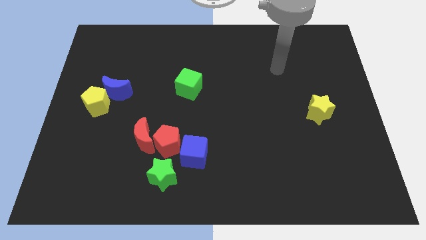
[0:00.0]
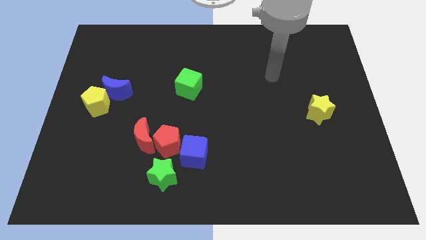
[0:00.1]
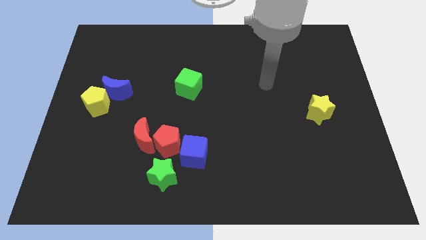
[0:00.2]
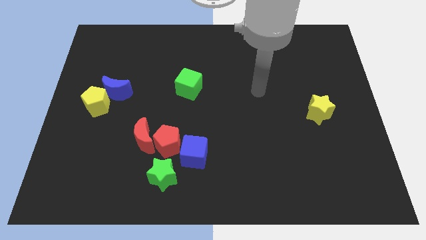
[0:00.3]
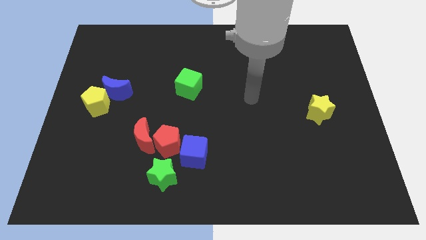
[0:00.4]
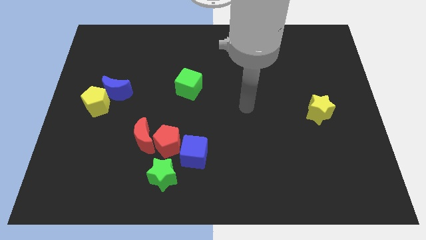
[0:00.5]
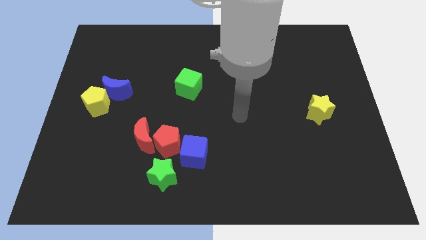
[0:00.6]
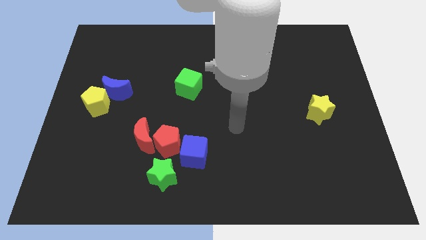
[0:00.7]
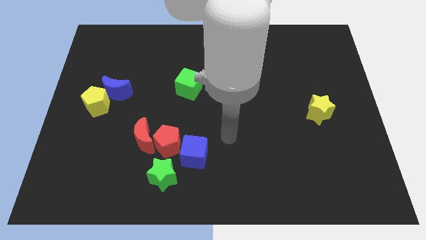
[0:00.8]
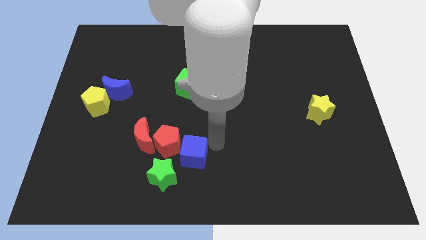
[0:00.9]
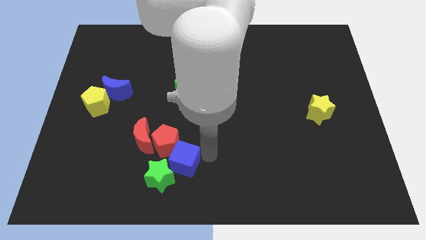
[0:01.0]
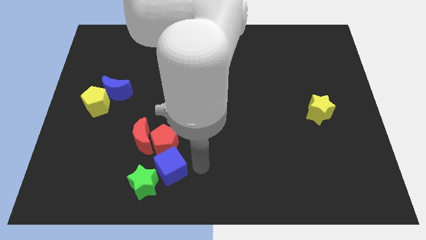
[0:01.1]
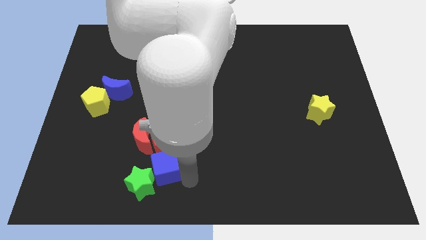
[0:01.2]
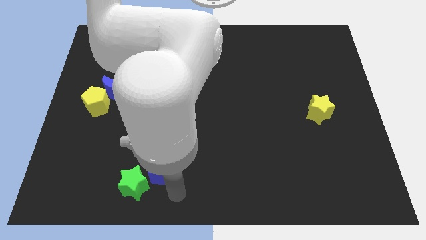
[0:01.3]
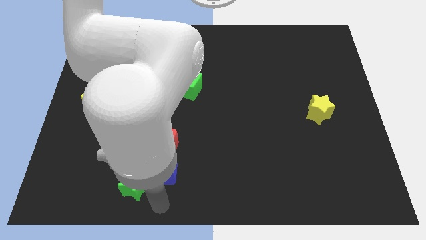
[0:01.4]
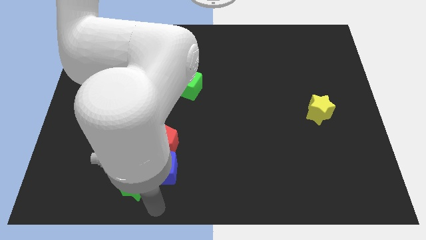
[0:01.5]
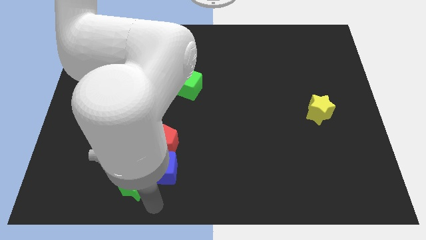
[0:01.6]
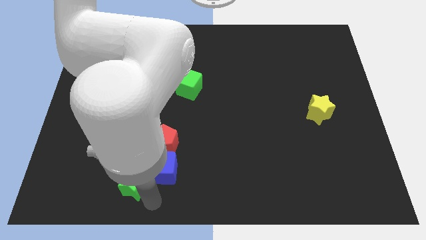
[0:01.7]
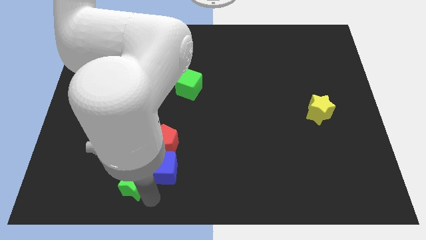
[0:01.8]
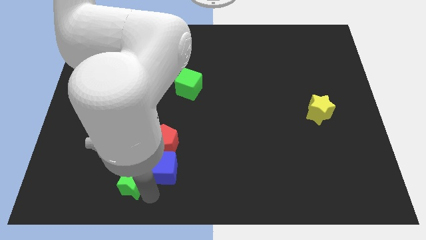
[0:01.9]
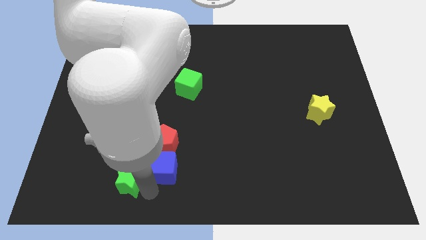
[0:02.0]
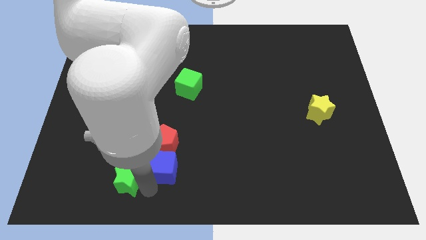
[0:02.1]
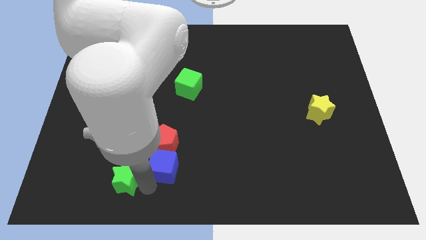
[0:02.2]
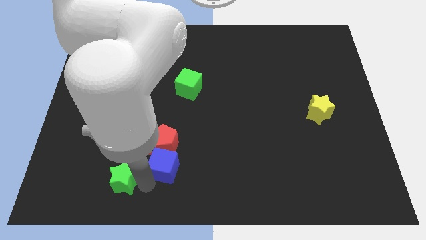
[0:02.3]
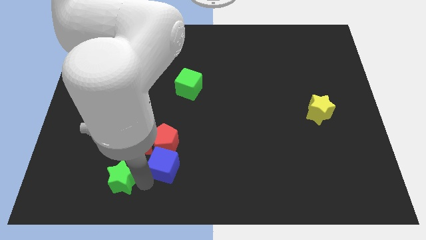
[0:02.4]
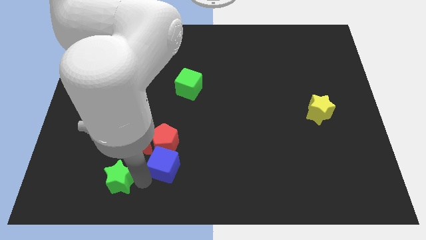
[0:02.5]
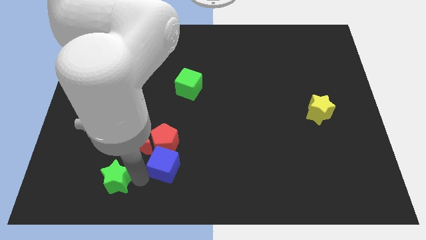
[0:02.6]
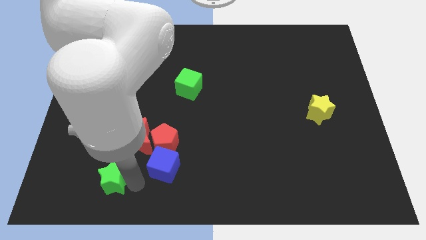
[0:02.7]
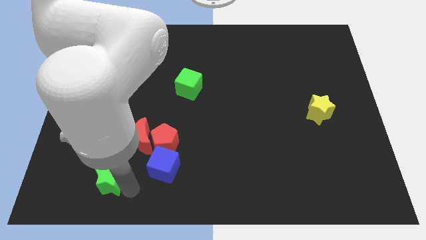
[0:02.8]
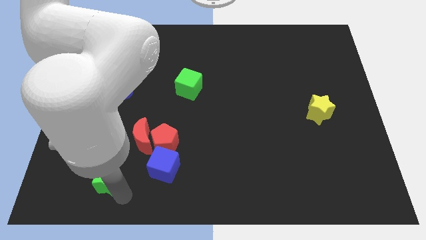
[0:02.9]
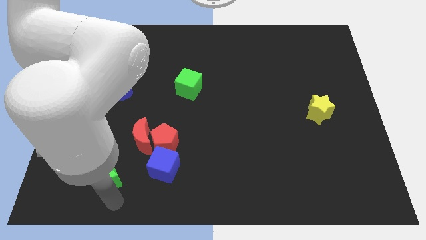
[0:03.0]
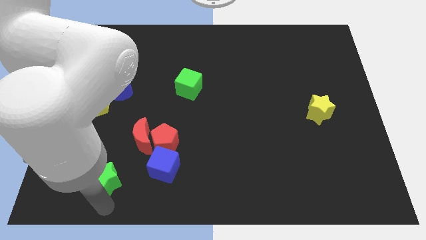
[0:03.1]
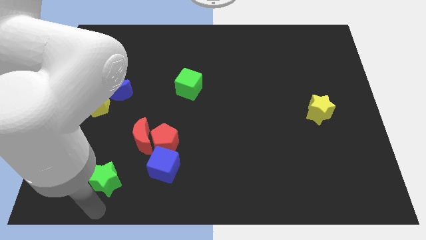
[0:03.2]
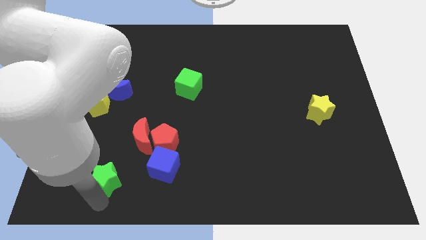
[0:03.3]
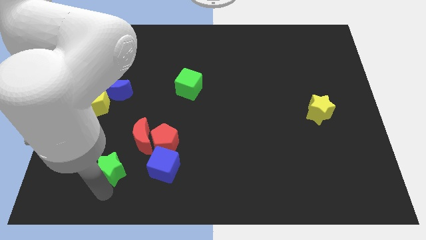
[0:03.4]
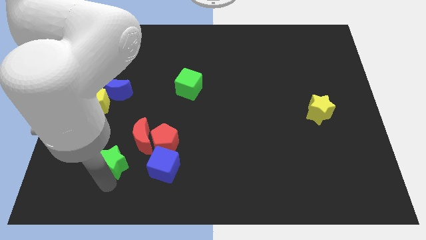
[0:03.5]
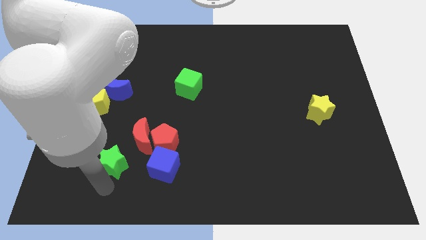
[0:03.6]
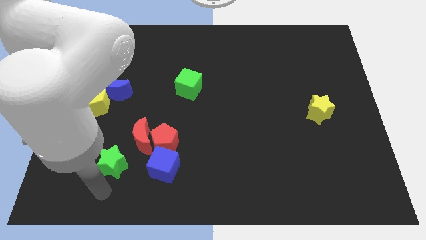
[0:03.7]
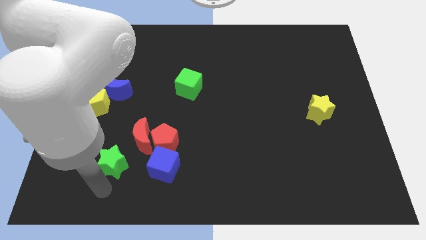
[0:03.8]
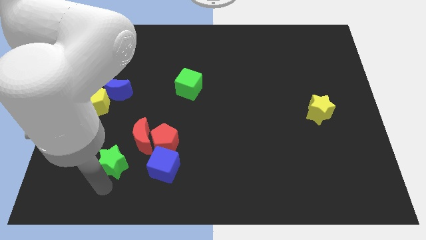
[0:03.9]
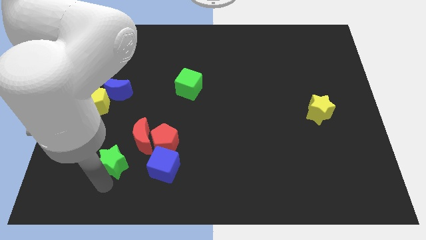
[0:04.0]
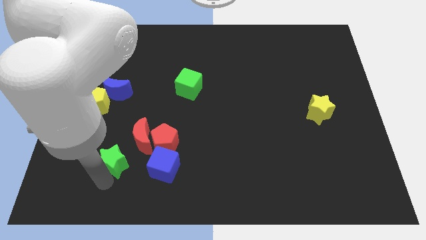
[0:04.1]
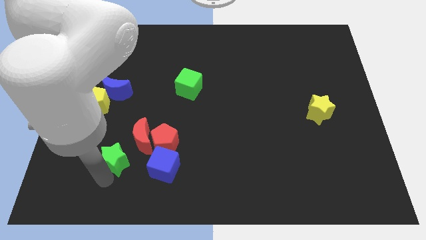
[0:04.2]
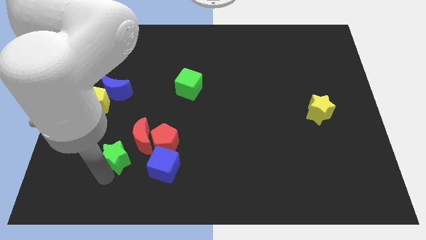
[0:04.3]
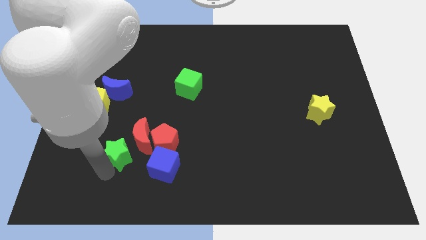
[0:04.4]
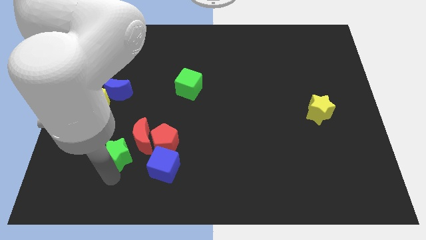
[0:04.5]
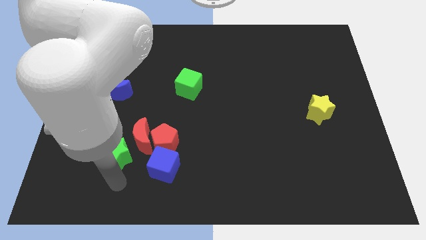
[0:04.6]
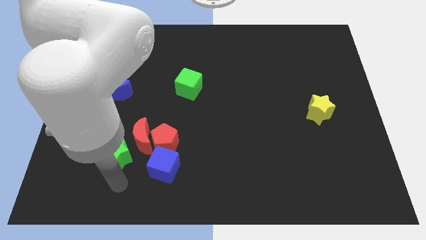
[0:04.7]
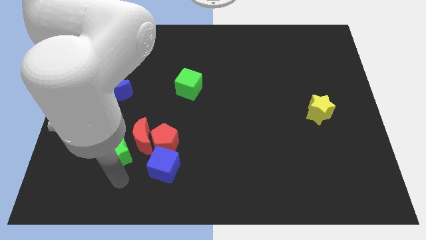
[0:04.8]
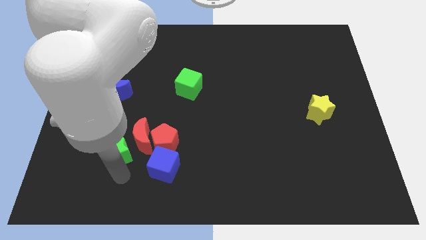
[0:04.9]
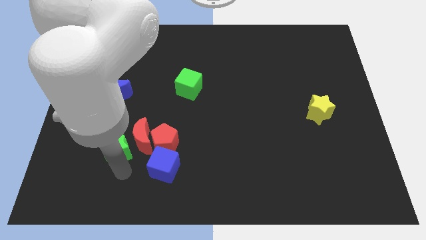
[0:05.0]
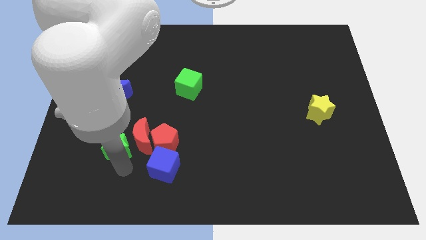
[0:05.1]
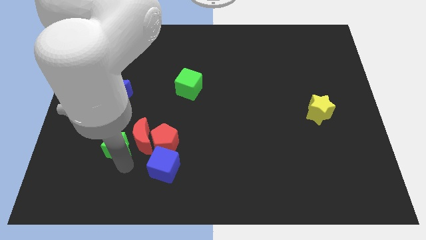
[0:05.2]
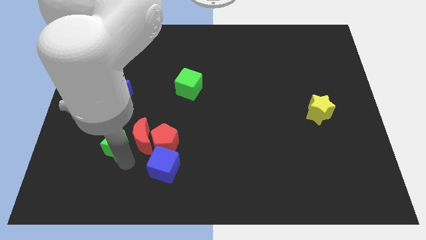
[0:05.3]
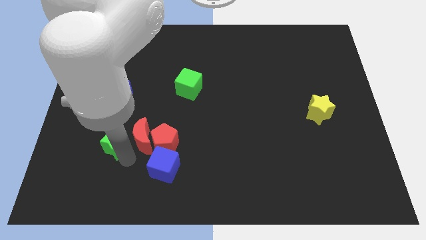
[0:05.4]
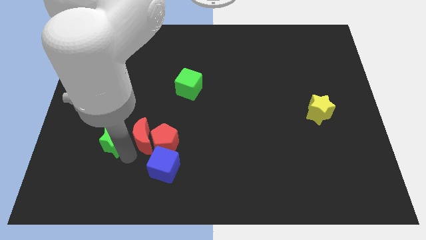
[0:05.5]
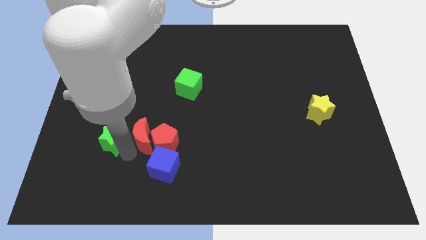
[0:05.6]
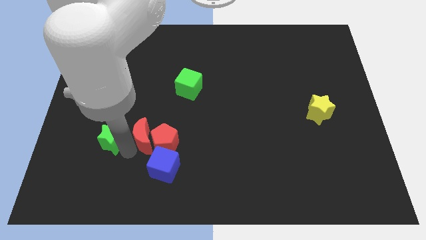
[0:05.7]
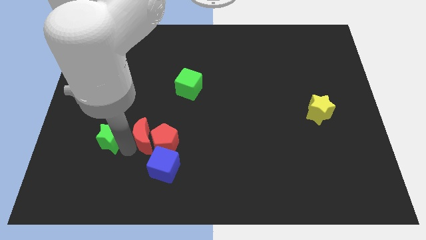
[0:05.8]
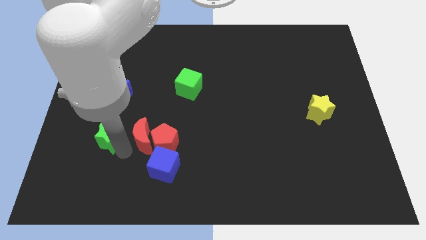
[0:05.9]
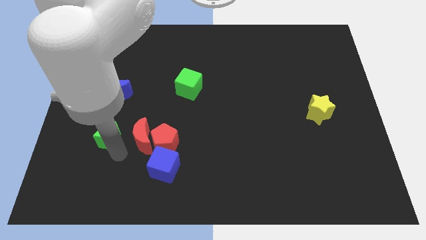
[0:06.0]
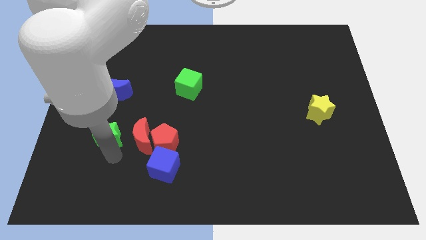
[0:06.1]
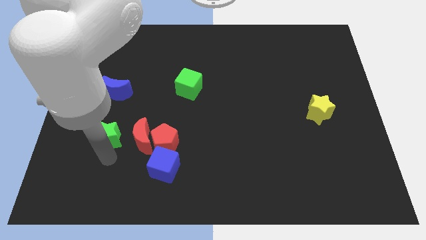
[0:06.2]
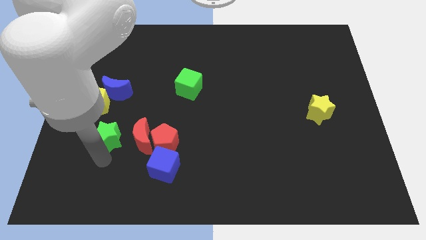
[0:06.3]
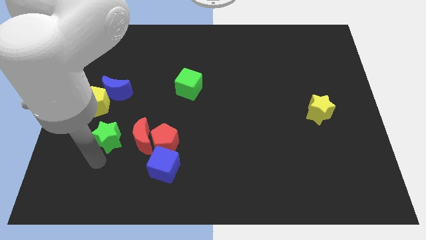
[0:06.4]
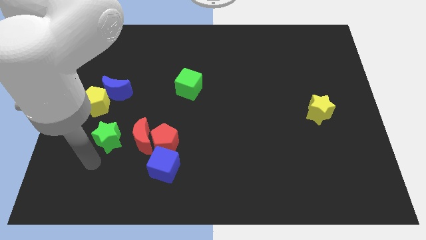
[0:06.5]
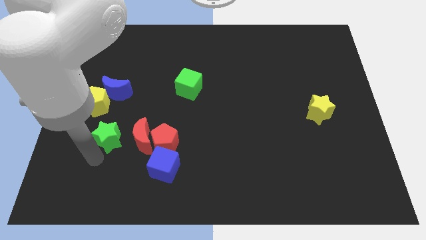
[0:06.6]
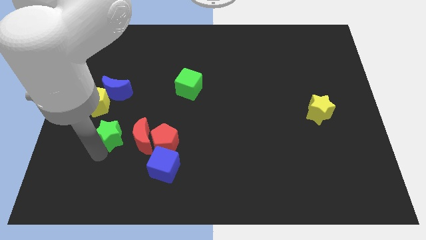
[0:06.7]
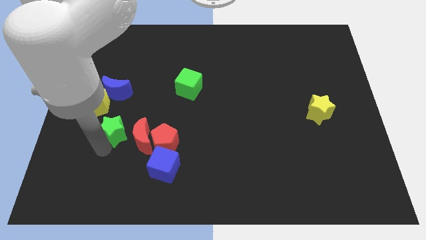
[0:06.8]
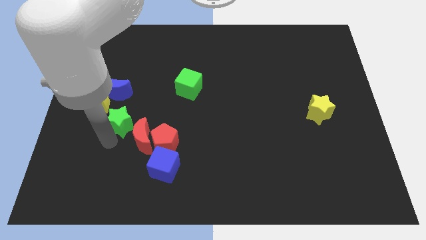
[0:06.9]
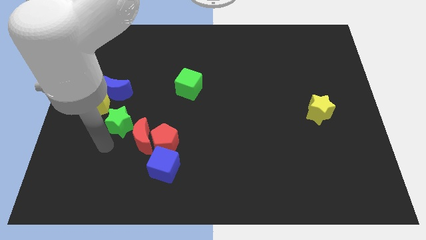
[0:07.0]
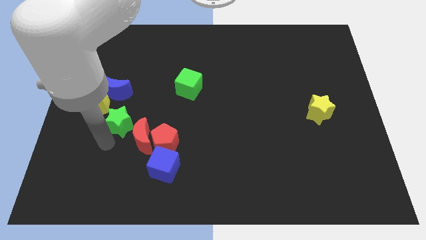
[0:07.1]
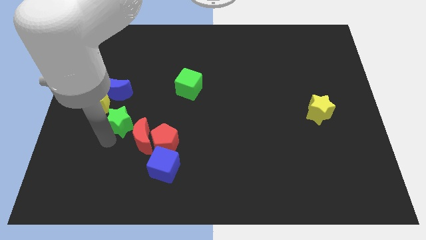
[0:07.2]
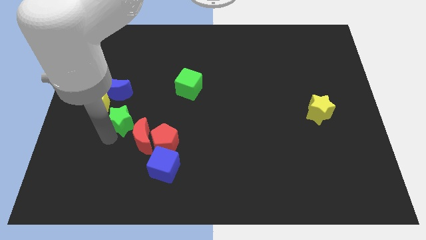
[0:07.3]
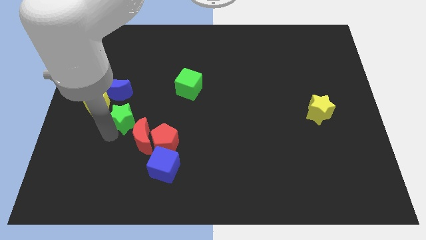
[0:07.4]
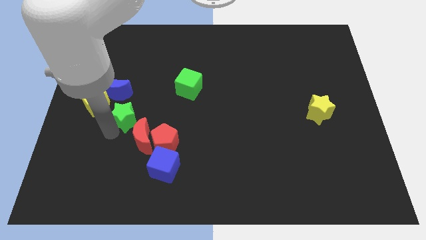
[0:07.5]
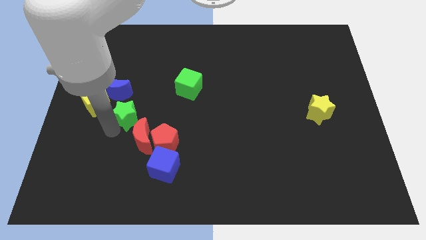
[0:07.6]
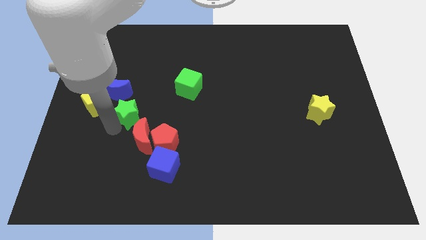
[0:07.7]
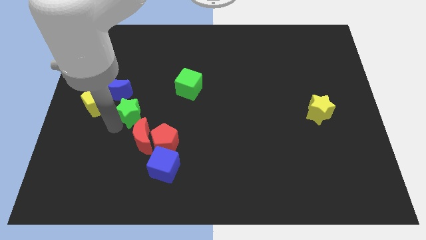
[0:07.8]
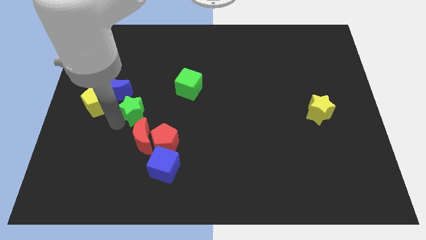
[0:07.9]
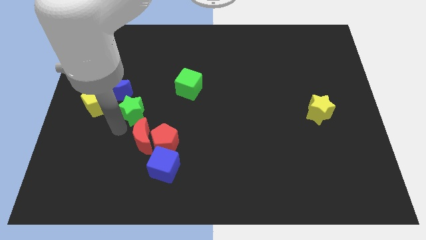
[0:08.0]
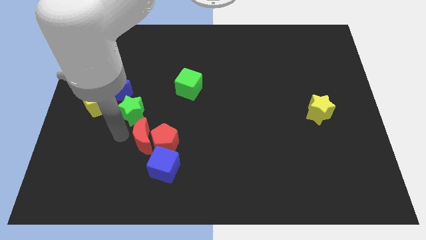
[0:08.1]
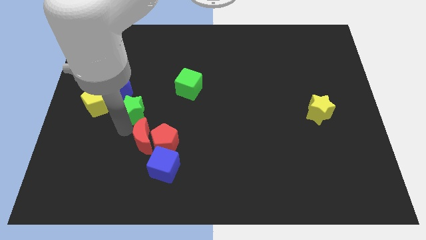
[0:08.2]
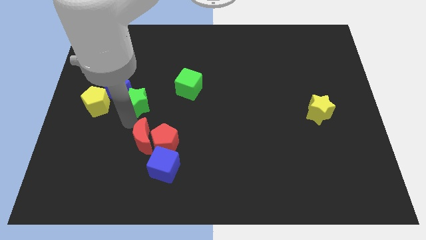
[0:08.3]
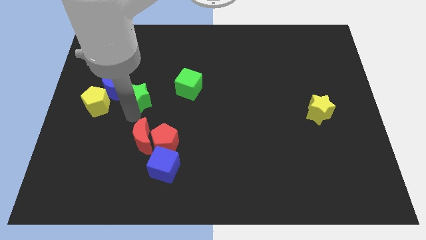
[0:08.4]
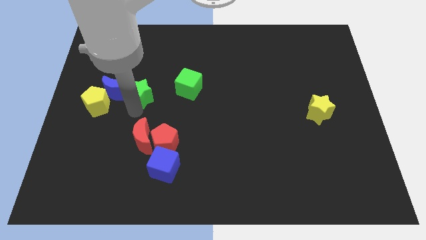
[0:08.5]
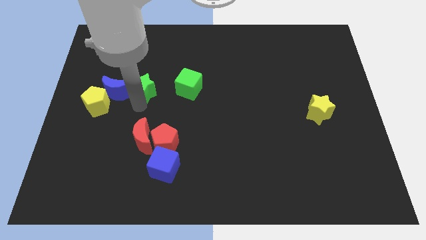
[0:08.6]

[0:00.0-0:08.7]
push the green star diagonally up and to the right of the blue moon
